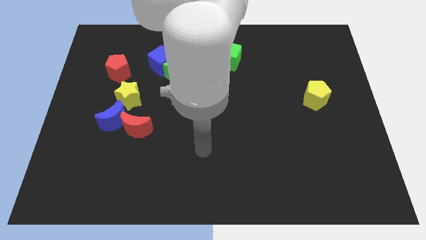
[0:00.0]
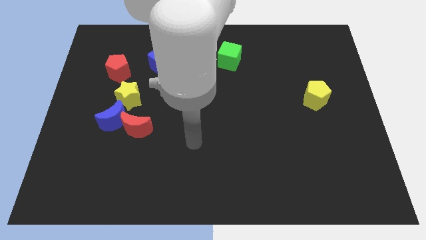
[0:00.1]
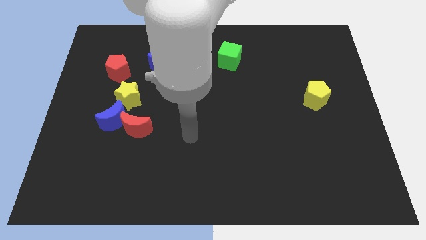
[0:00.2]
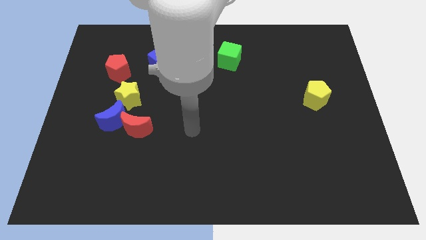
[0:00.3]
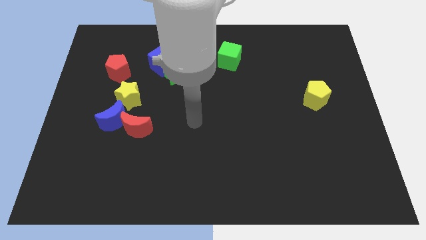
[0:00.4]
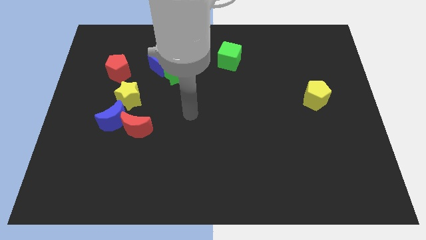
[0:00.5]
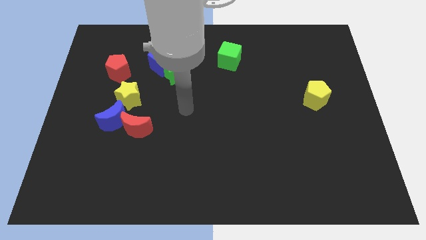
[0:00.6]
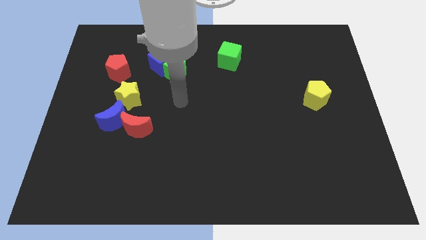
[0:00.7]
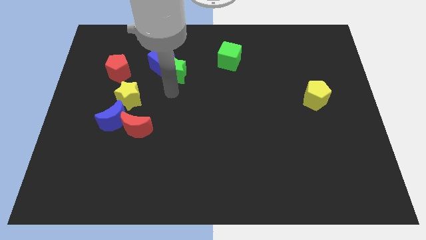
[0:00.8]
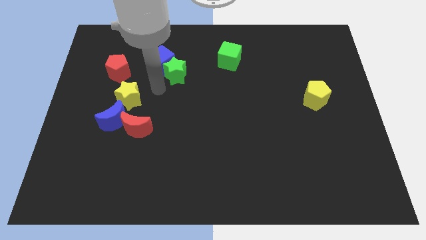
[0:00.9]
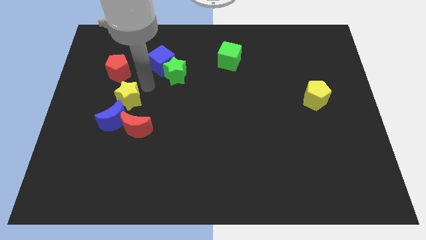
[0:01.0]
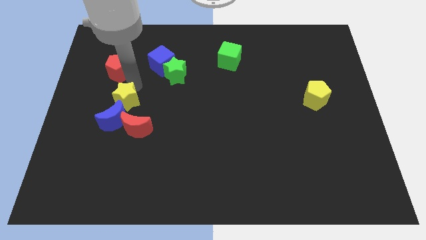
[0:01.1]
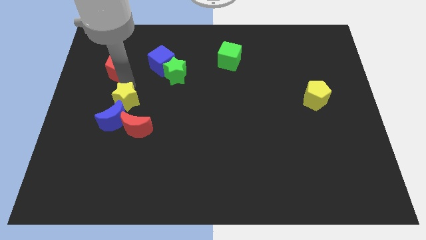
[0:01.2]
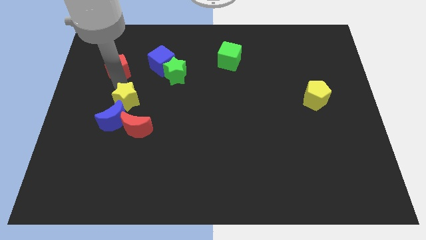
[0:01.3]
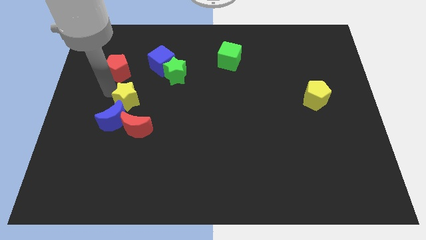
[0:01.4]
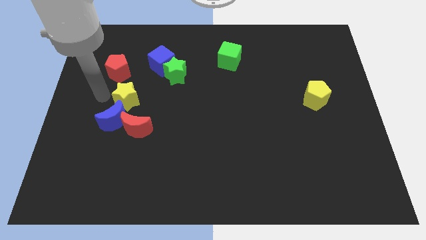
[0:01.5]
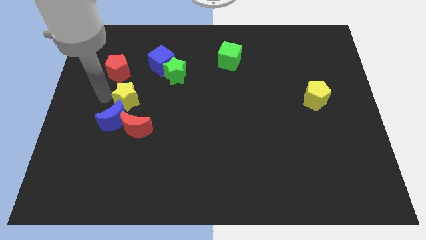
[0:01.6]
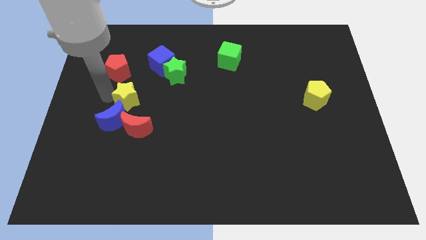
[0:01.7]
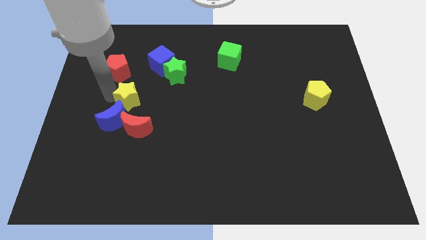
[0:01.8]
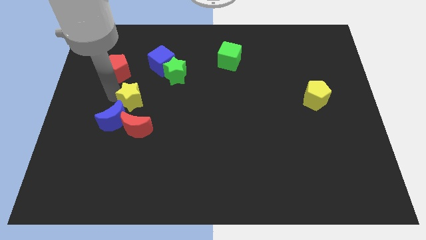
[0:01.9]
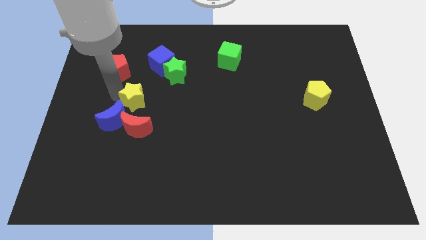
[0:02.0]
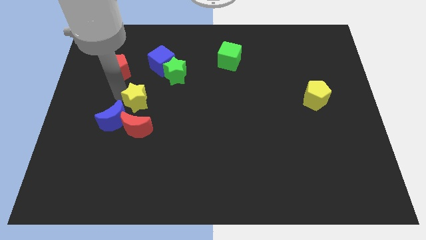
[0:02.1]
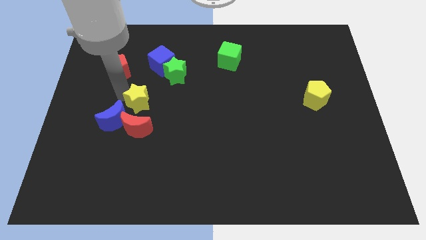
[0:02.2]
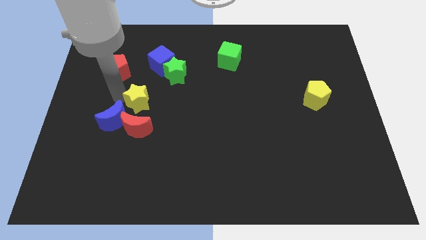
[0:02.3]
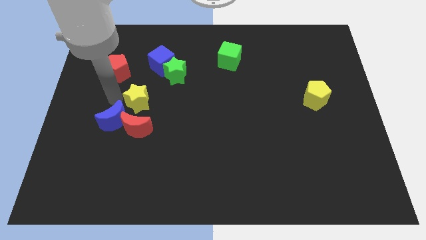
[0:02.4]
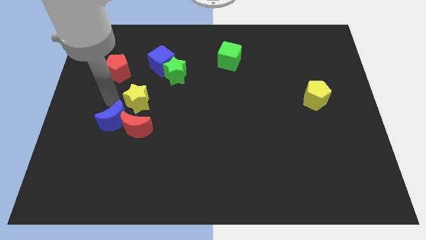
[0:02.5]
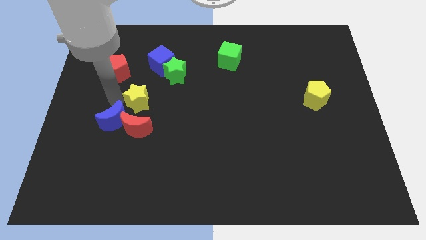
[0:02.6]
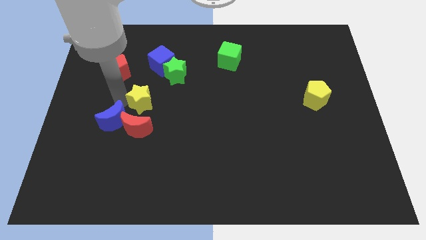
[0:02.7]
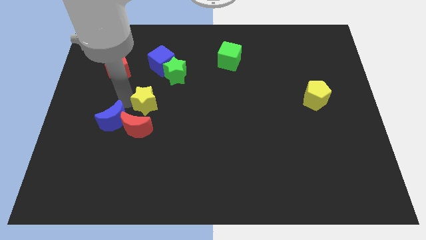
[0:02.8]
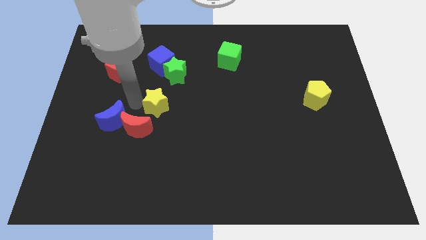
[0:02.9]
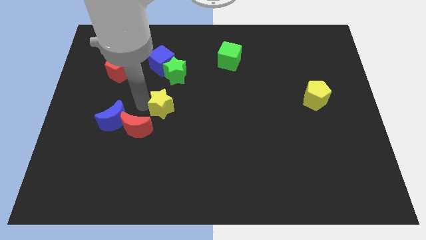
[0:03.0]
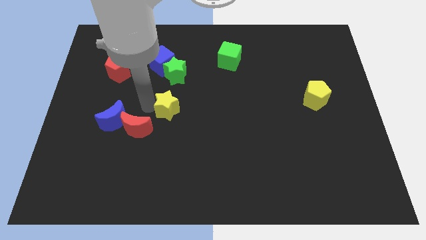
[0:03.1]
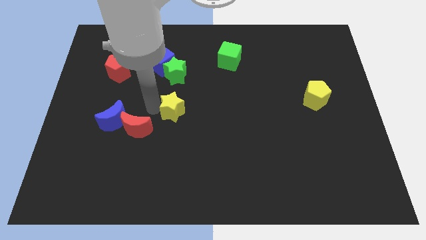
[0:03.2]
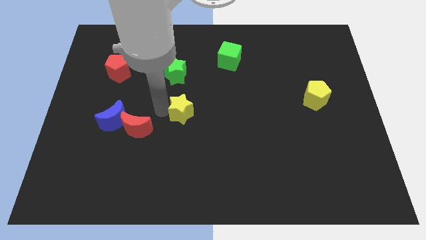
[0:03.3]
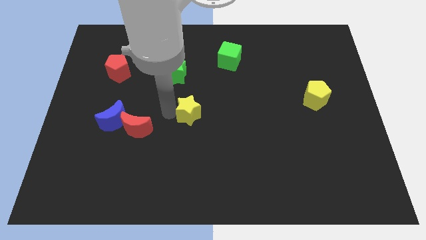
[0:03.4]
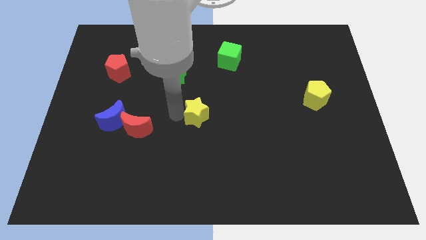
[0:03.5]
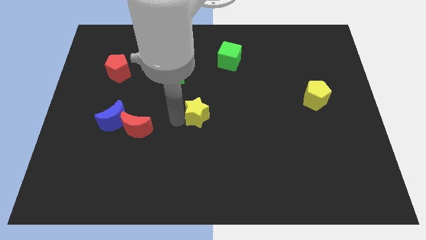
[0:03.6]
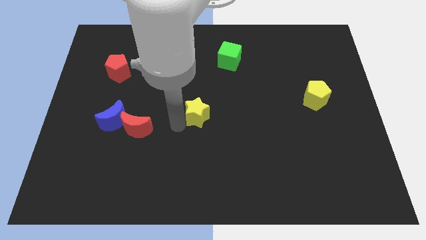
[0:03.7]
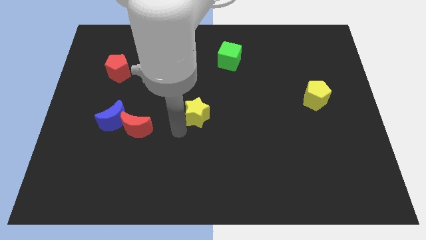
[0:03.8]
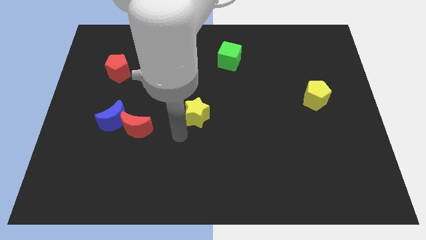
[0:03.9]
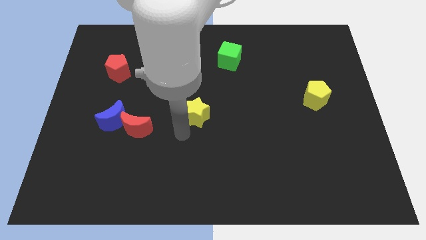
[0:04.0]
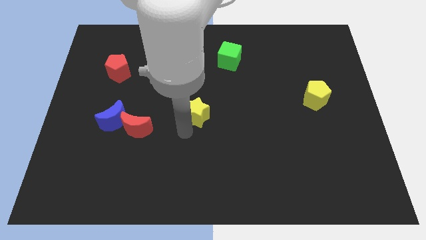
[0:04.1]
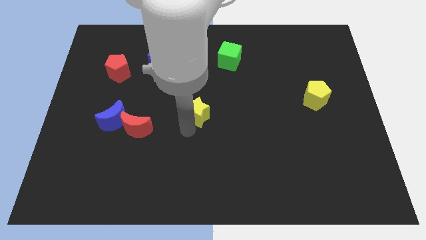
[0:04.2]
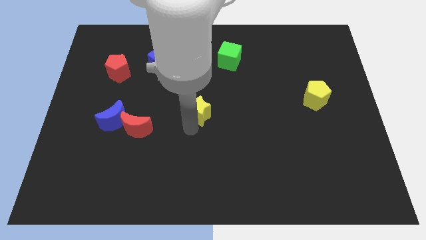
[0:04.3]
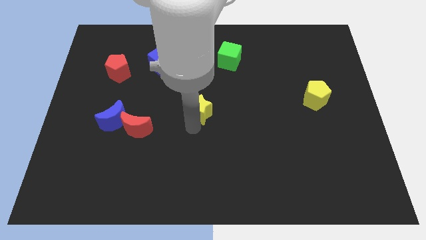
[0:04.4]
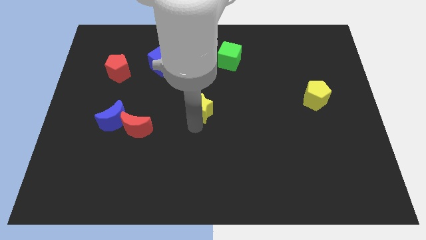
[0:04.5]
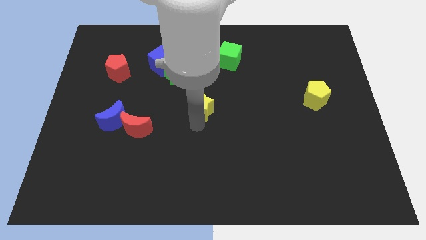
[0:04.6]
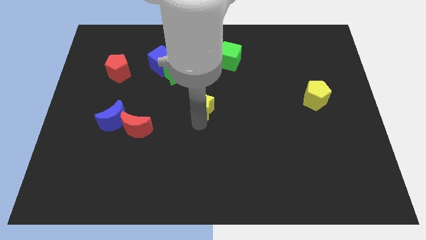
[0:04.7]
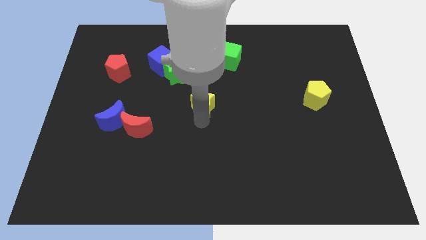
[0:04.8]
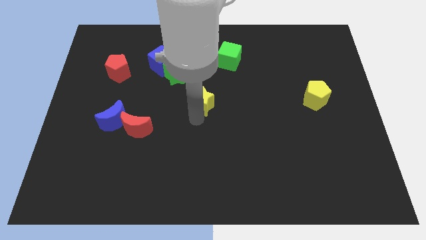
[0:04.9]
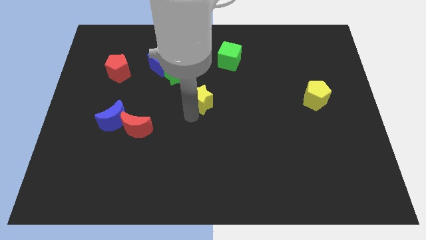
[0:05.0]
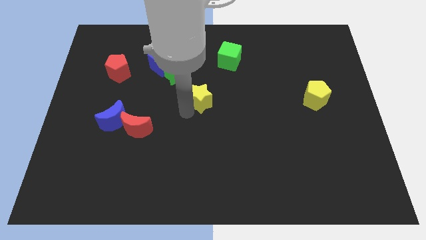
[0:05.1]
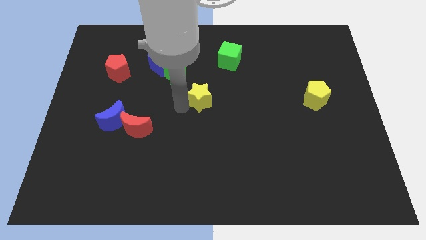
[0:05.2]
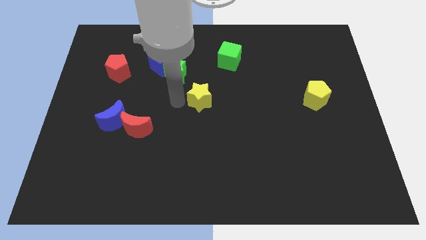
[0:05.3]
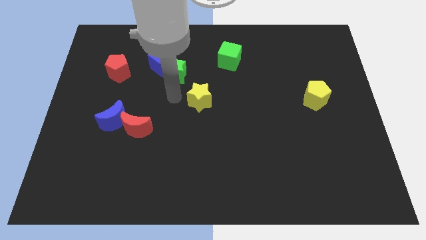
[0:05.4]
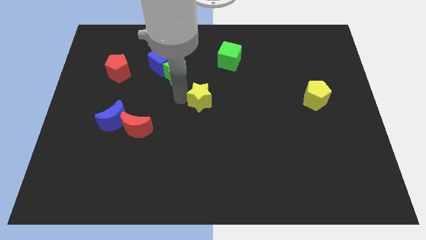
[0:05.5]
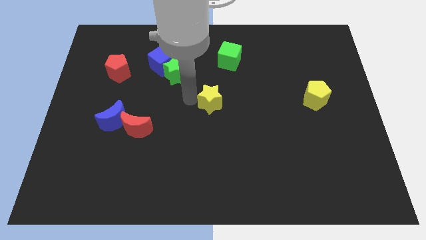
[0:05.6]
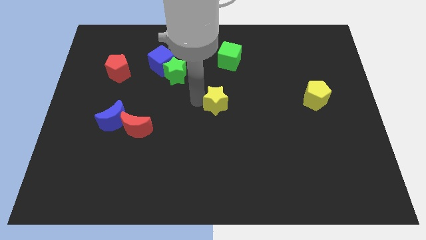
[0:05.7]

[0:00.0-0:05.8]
move the yellow star right

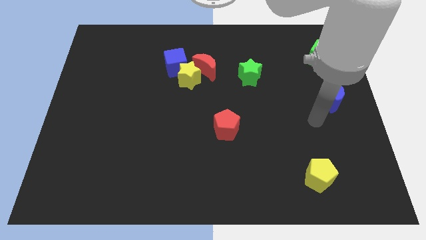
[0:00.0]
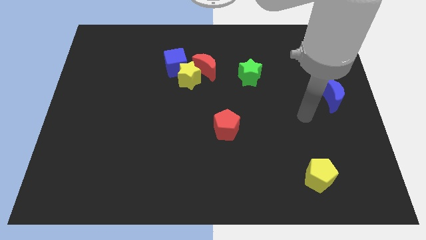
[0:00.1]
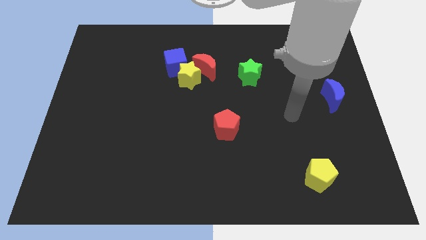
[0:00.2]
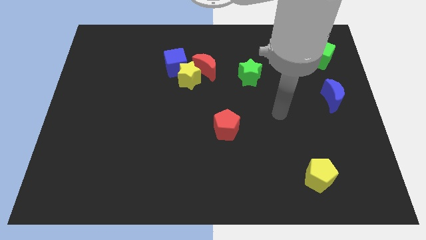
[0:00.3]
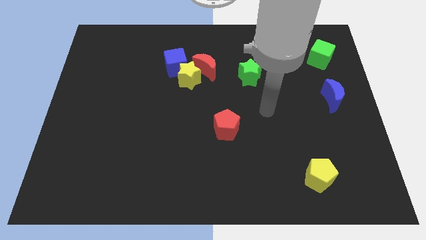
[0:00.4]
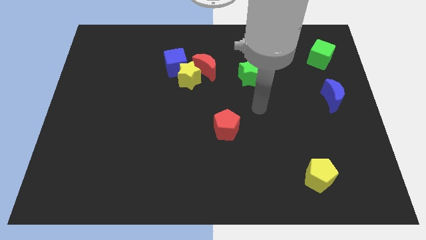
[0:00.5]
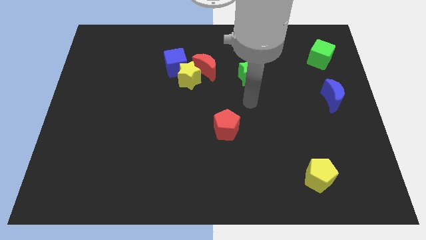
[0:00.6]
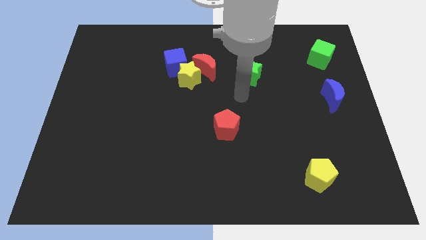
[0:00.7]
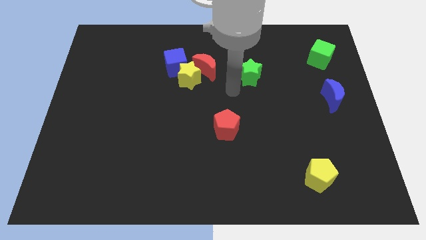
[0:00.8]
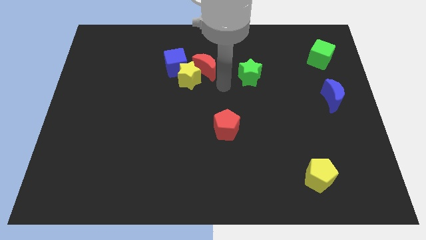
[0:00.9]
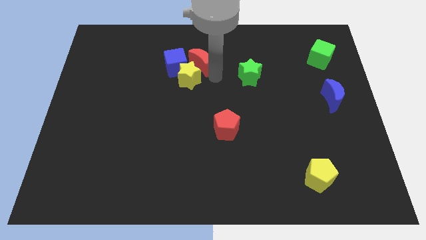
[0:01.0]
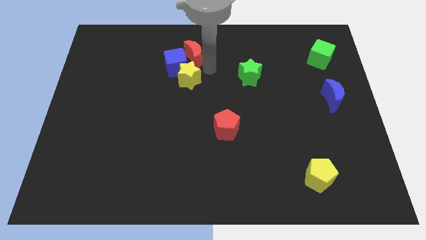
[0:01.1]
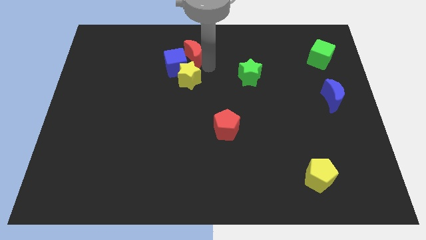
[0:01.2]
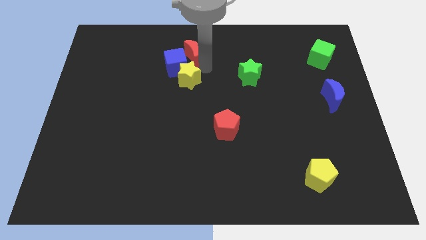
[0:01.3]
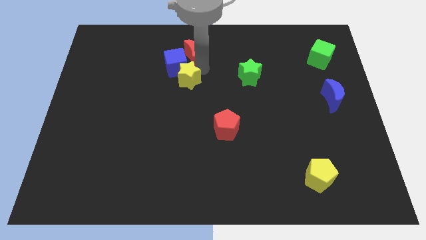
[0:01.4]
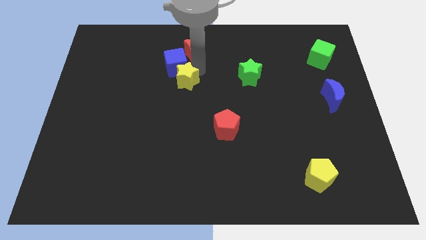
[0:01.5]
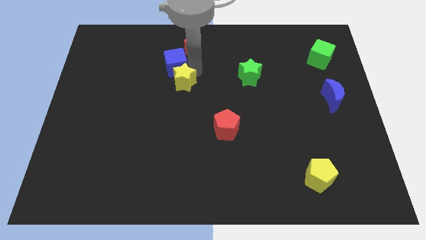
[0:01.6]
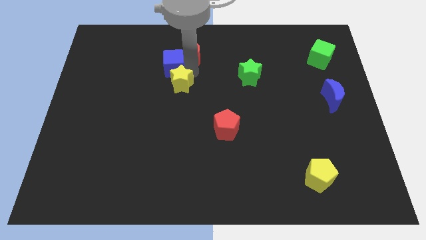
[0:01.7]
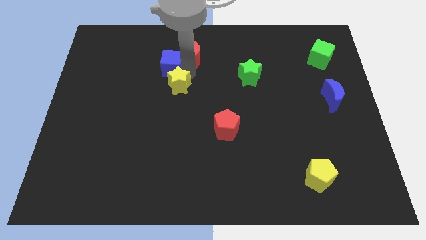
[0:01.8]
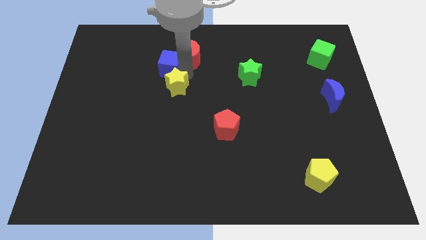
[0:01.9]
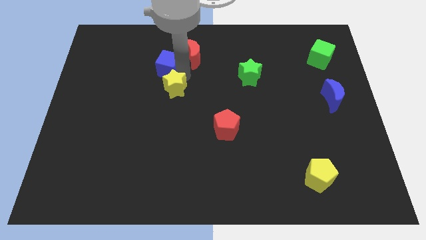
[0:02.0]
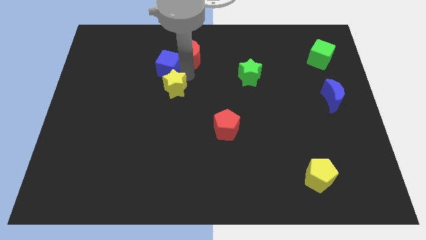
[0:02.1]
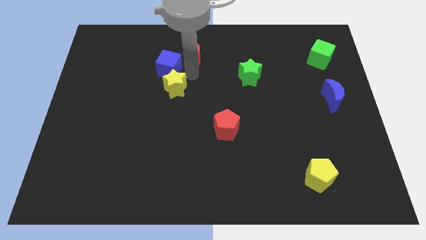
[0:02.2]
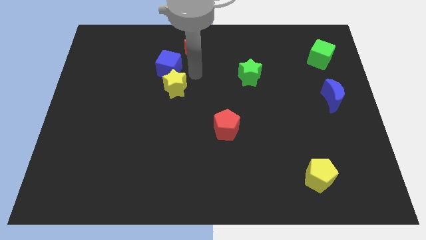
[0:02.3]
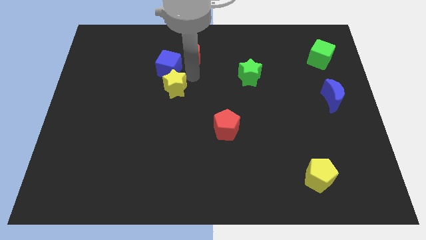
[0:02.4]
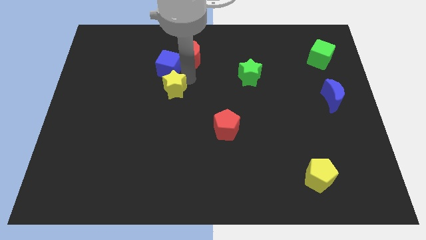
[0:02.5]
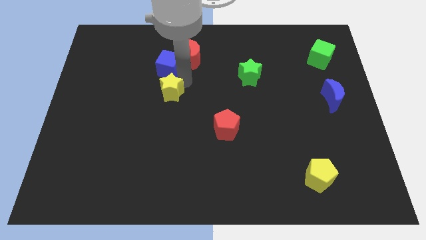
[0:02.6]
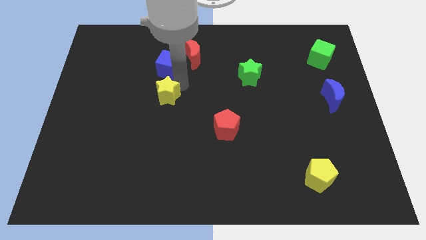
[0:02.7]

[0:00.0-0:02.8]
slide the yellow star downwards and then to the left a little
